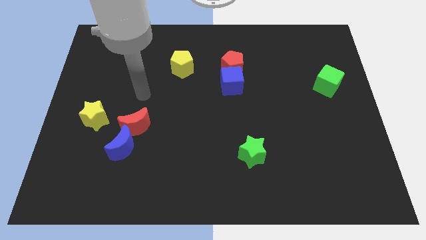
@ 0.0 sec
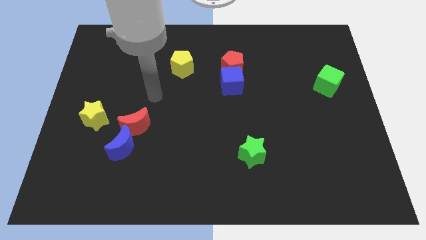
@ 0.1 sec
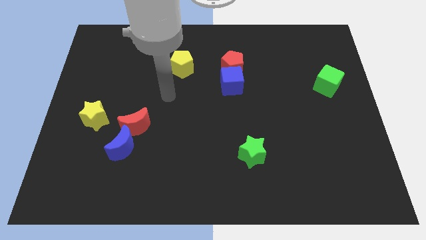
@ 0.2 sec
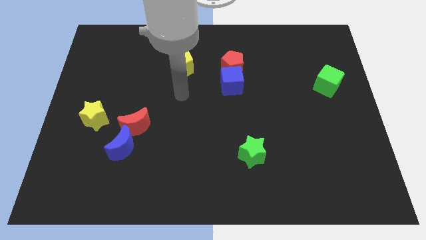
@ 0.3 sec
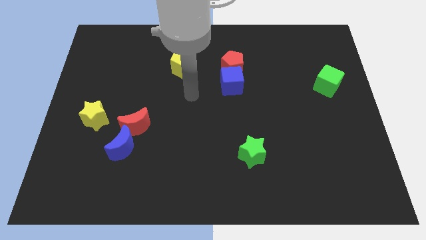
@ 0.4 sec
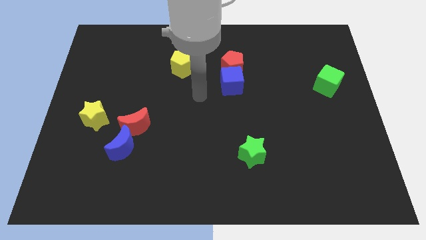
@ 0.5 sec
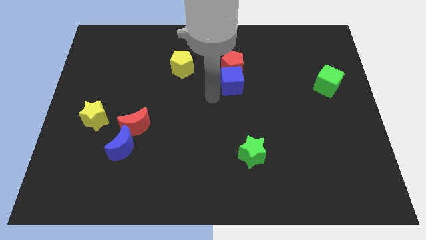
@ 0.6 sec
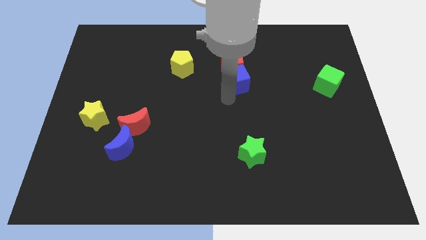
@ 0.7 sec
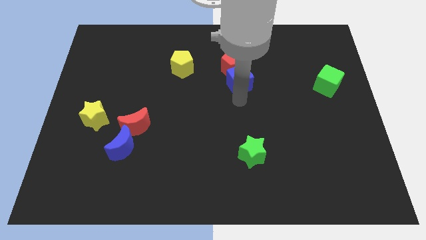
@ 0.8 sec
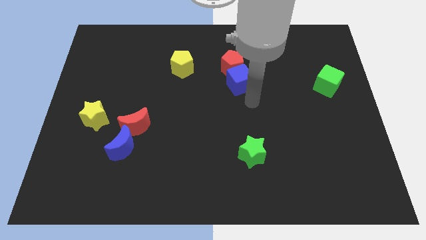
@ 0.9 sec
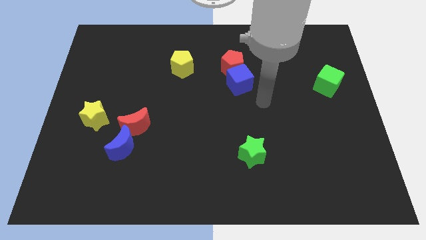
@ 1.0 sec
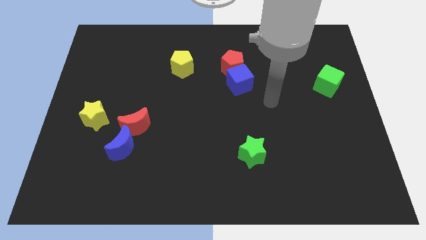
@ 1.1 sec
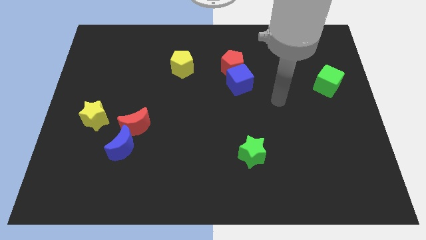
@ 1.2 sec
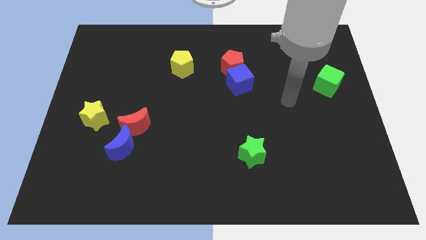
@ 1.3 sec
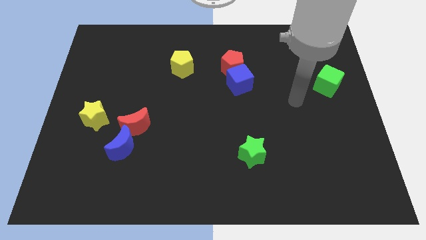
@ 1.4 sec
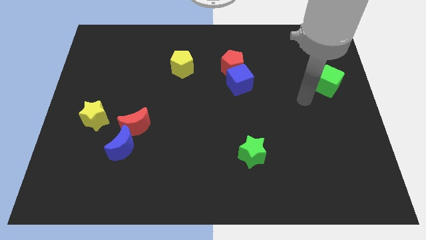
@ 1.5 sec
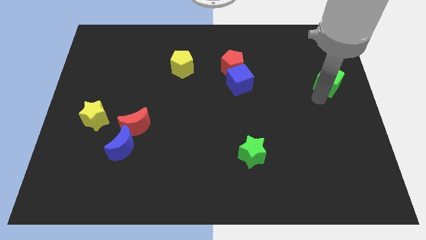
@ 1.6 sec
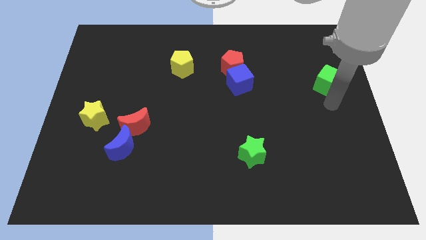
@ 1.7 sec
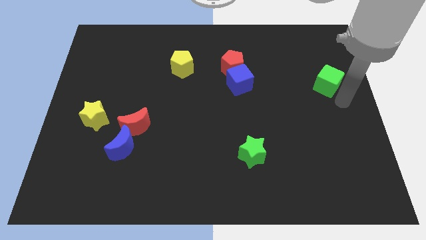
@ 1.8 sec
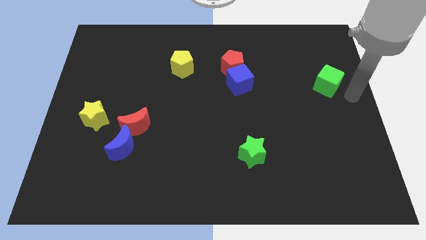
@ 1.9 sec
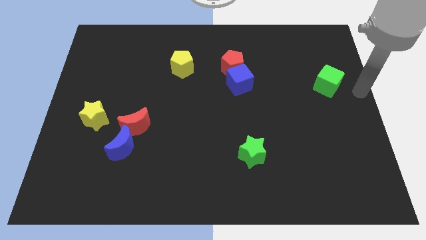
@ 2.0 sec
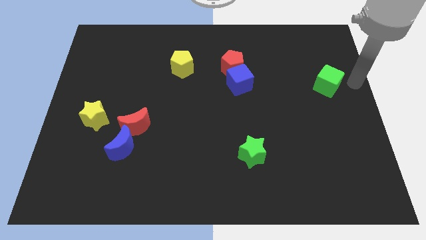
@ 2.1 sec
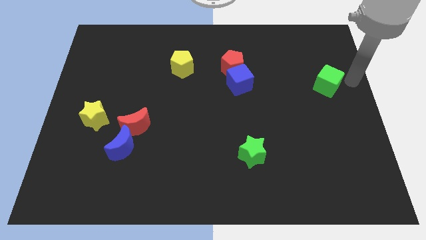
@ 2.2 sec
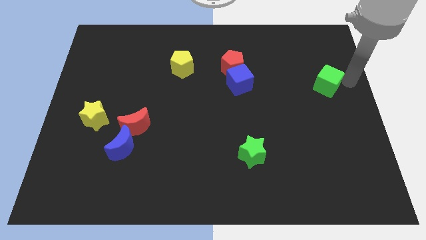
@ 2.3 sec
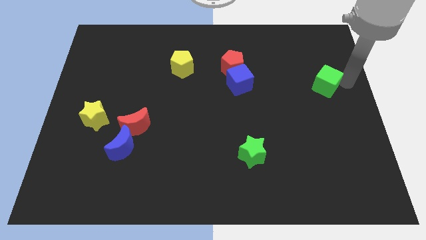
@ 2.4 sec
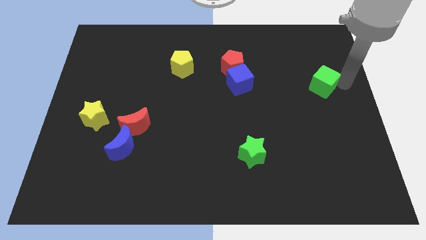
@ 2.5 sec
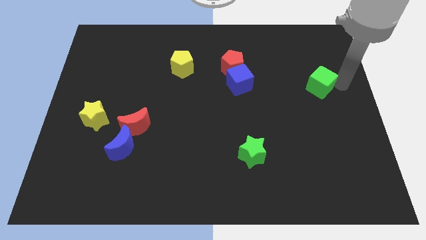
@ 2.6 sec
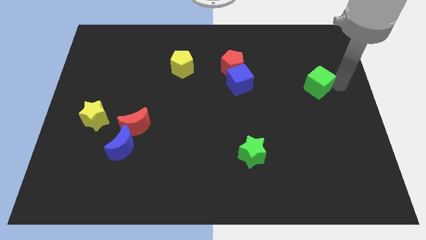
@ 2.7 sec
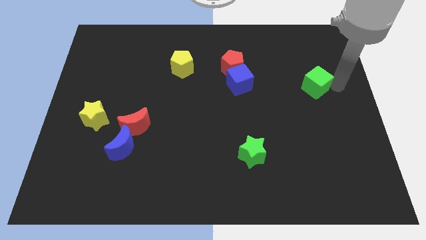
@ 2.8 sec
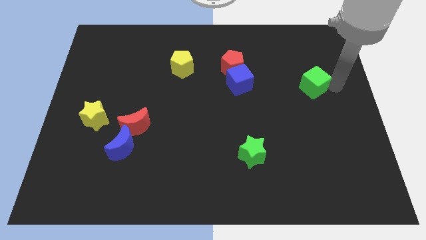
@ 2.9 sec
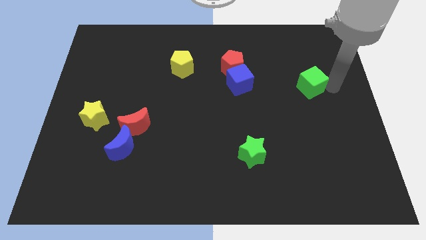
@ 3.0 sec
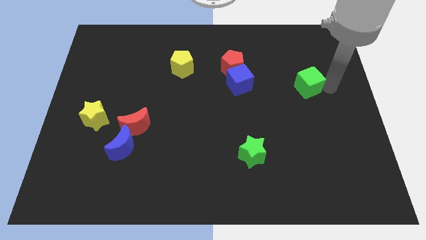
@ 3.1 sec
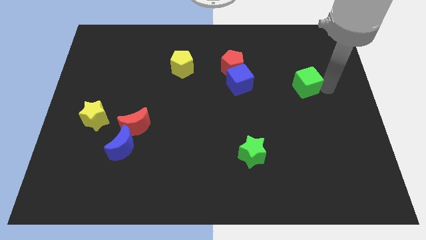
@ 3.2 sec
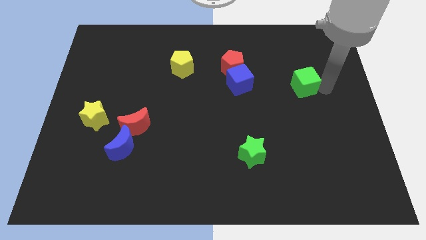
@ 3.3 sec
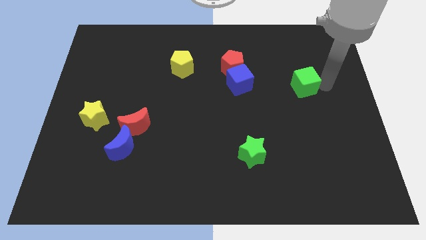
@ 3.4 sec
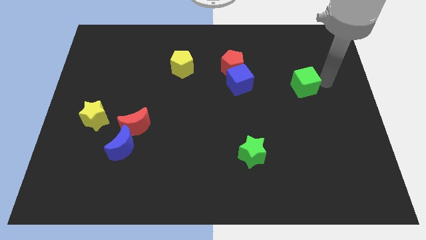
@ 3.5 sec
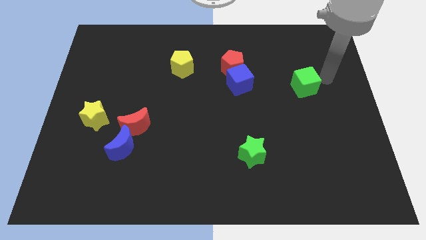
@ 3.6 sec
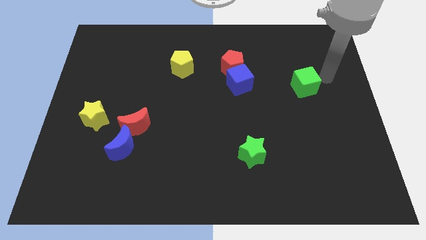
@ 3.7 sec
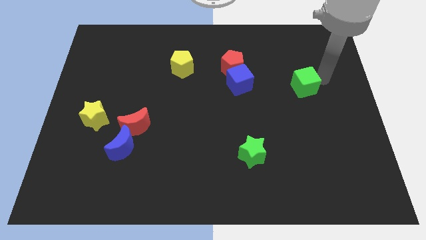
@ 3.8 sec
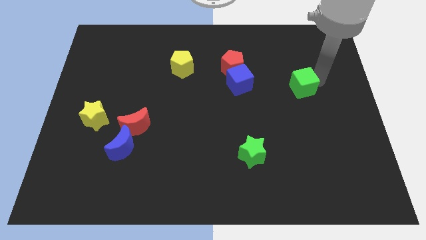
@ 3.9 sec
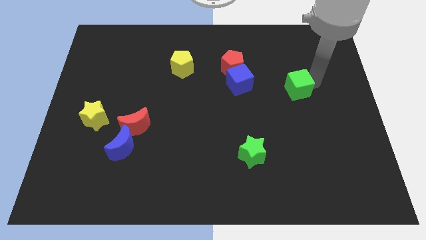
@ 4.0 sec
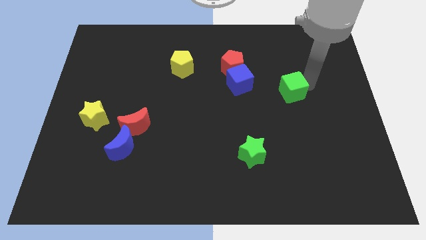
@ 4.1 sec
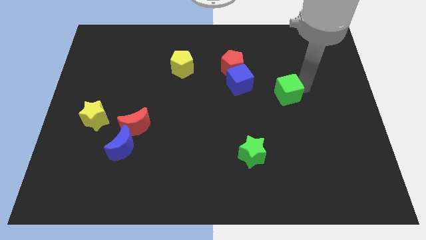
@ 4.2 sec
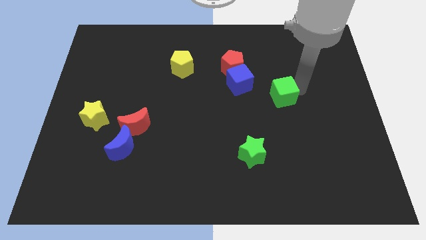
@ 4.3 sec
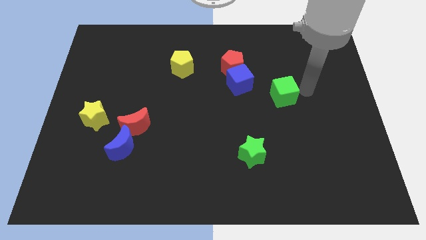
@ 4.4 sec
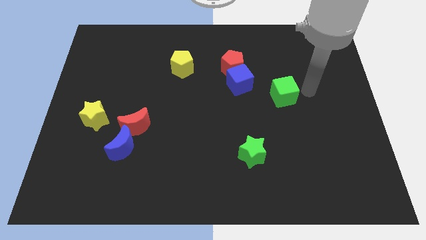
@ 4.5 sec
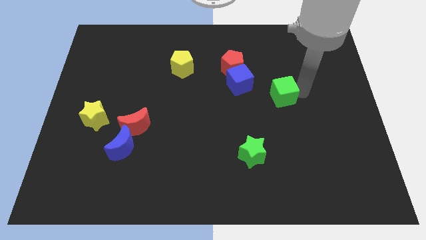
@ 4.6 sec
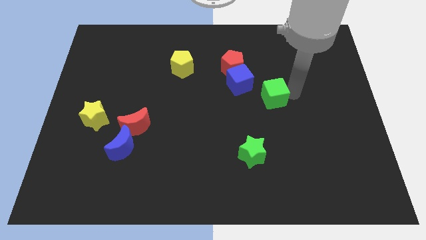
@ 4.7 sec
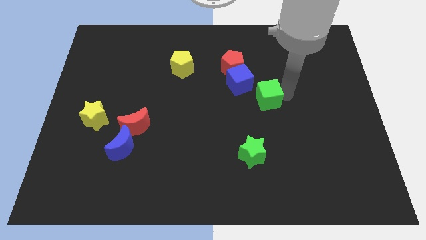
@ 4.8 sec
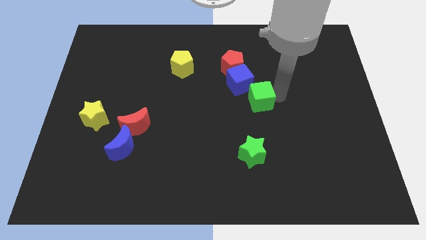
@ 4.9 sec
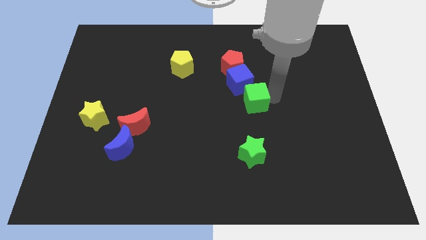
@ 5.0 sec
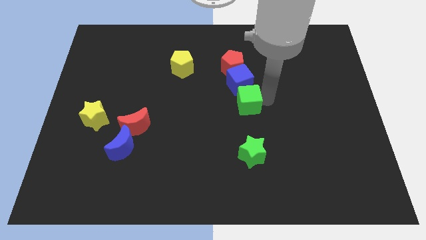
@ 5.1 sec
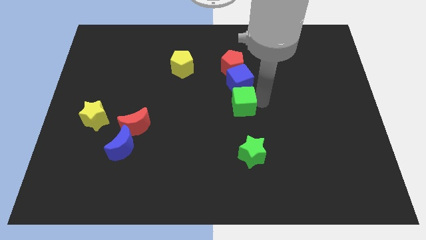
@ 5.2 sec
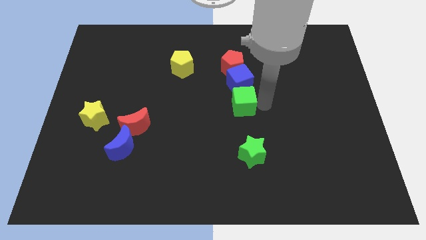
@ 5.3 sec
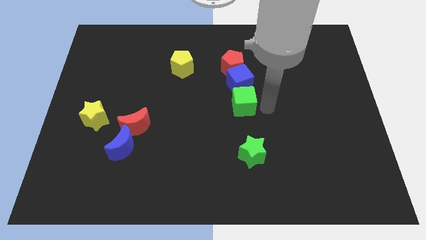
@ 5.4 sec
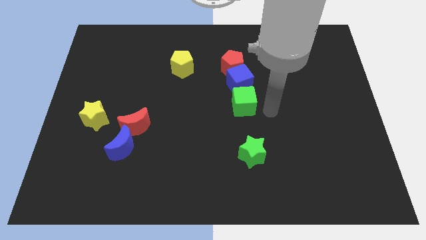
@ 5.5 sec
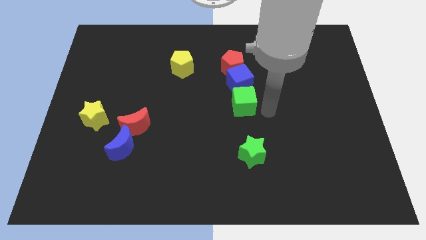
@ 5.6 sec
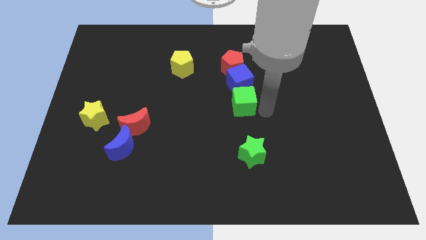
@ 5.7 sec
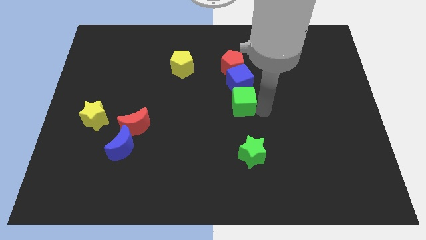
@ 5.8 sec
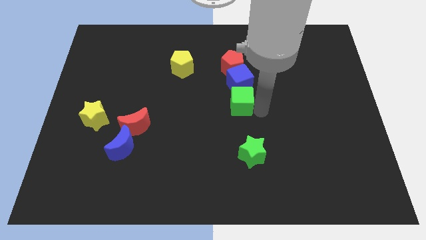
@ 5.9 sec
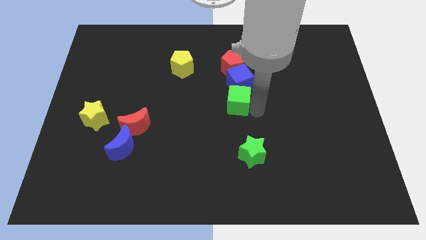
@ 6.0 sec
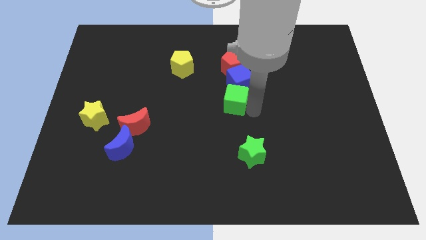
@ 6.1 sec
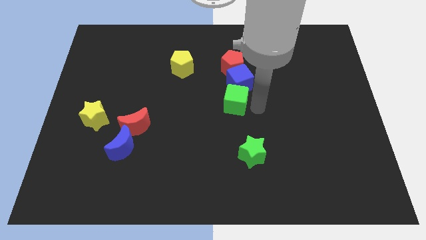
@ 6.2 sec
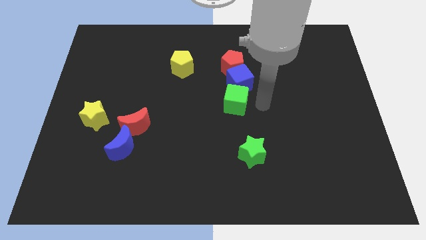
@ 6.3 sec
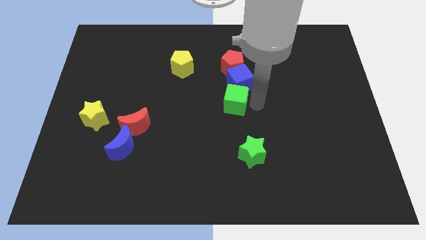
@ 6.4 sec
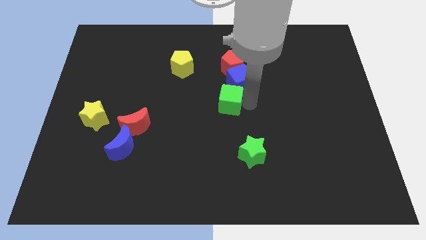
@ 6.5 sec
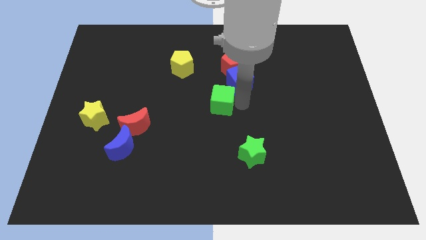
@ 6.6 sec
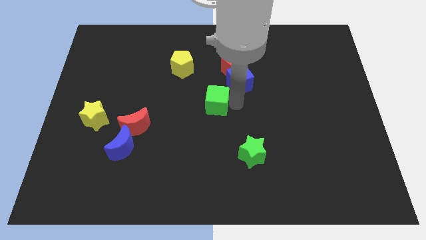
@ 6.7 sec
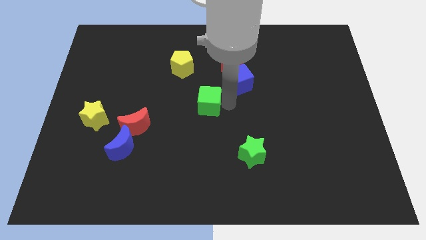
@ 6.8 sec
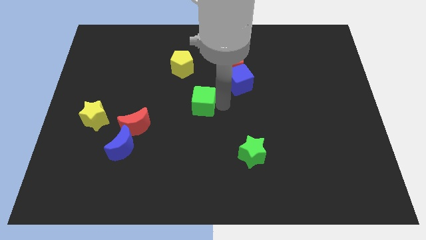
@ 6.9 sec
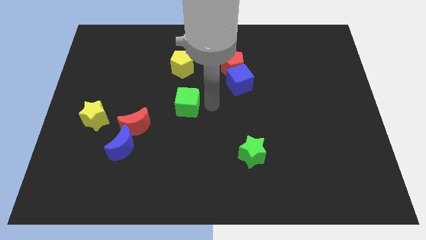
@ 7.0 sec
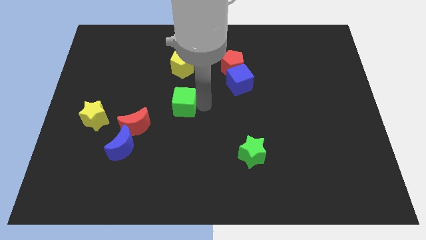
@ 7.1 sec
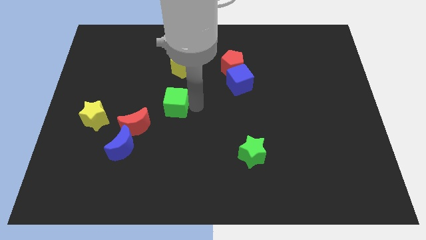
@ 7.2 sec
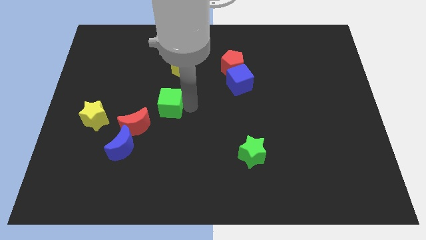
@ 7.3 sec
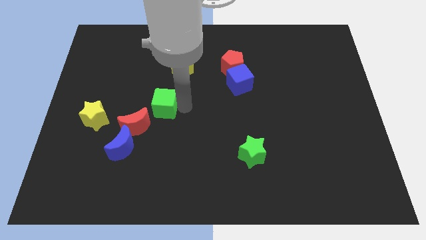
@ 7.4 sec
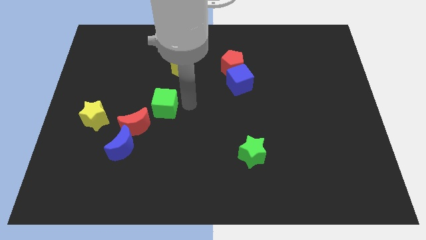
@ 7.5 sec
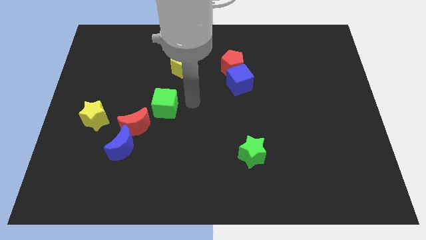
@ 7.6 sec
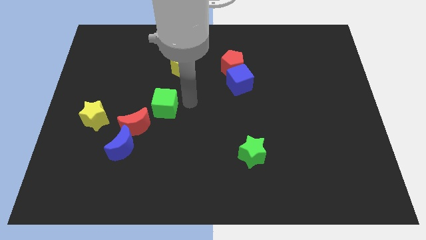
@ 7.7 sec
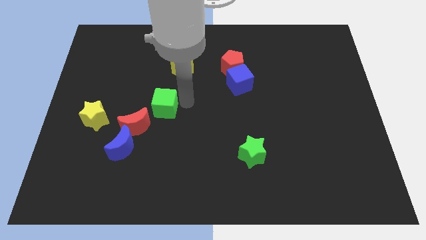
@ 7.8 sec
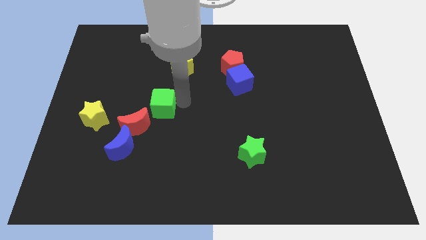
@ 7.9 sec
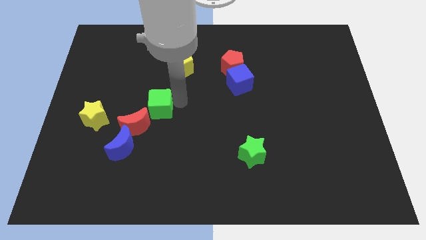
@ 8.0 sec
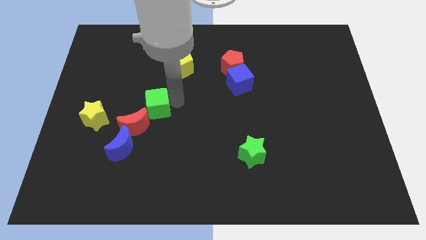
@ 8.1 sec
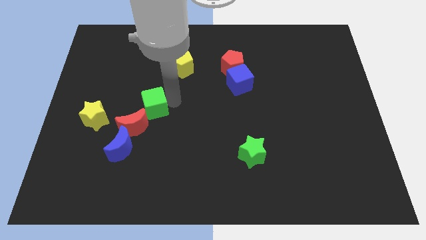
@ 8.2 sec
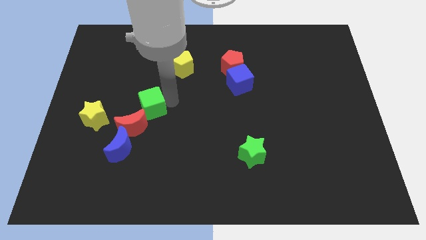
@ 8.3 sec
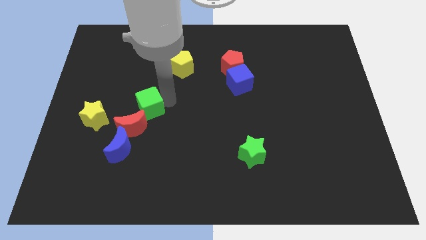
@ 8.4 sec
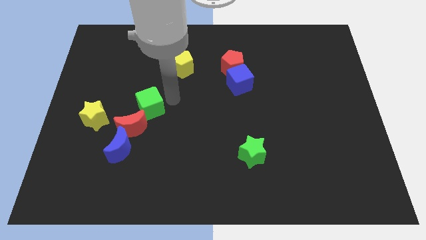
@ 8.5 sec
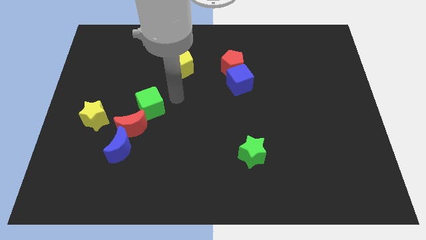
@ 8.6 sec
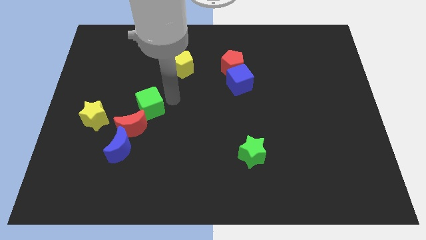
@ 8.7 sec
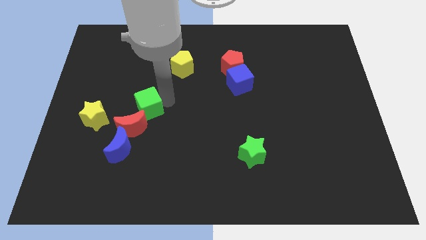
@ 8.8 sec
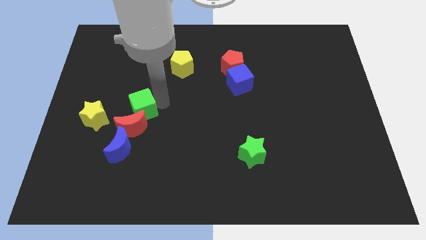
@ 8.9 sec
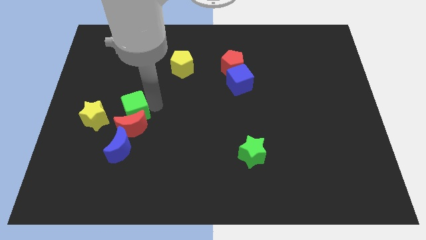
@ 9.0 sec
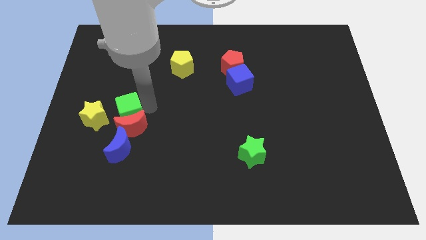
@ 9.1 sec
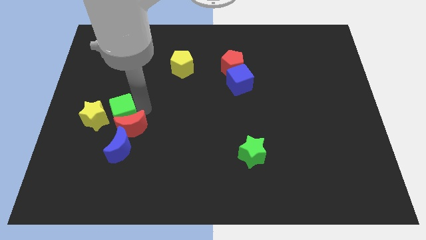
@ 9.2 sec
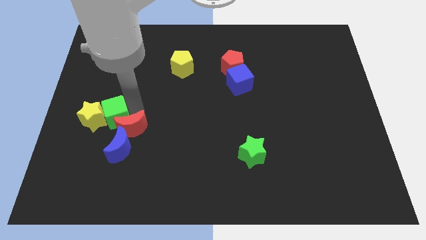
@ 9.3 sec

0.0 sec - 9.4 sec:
move the green cube to the yellow star
